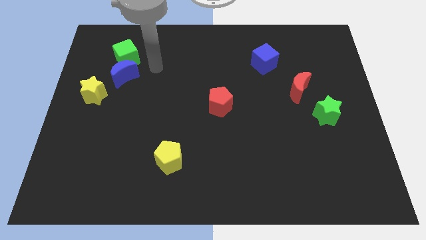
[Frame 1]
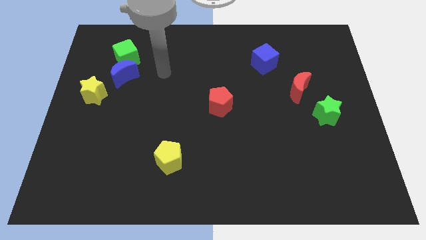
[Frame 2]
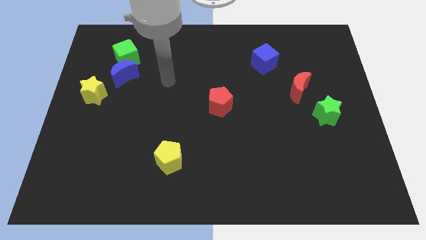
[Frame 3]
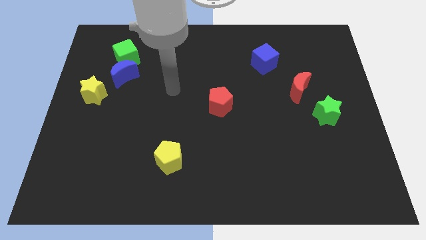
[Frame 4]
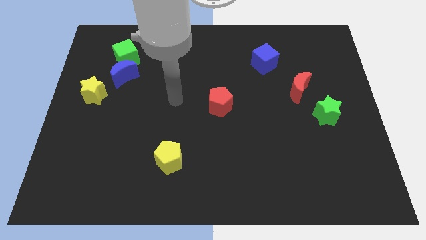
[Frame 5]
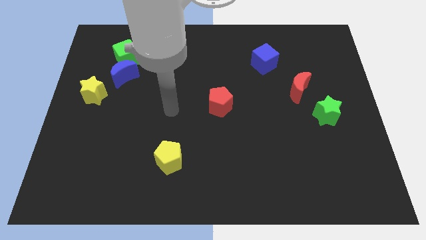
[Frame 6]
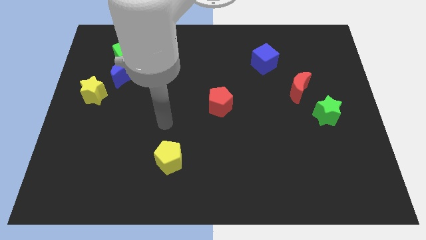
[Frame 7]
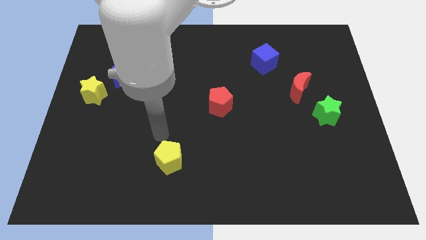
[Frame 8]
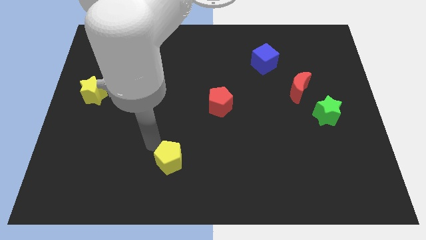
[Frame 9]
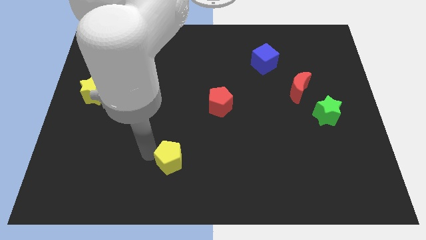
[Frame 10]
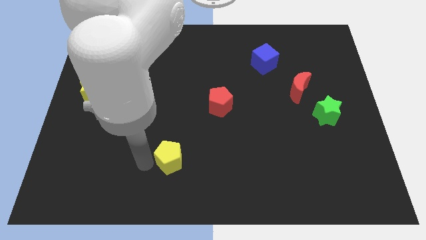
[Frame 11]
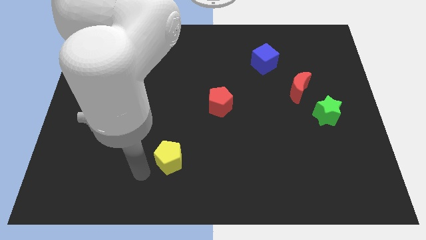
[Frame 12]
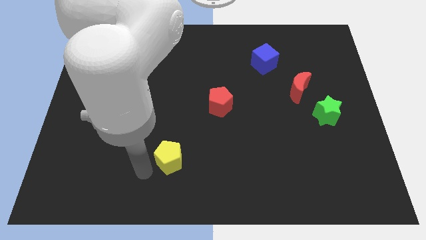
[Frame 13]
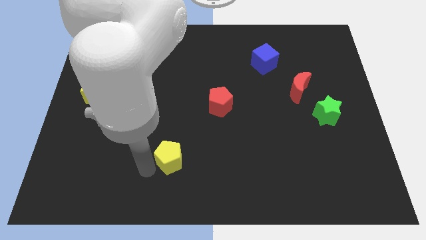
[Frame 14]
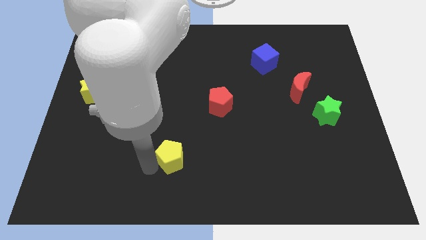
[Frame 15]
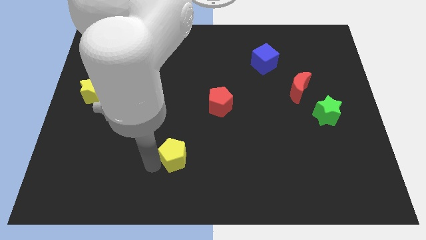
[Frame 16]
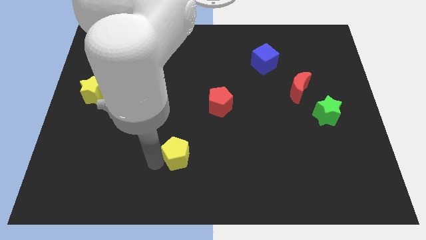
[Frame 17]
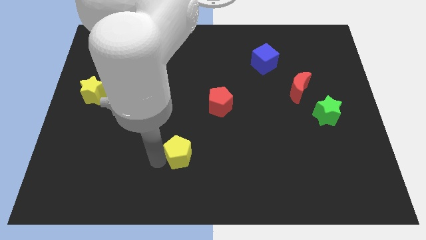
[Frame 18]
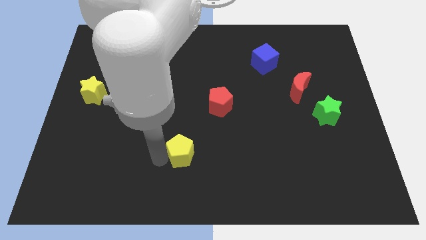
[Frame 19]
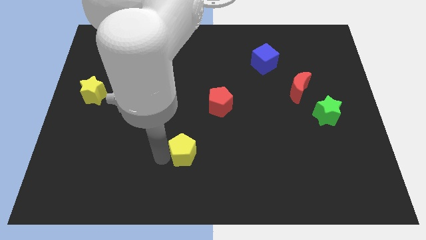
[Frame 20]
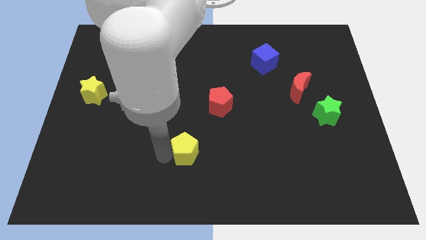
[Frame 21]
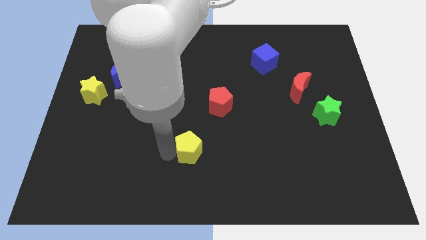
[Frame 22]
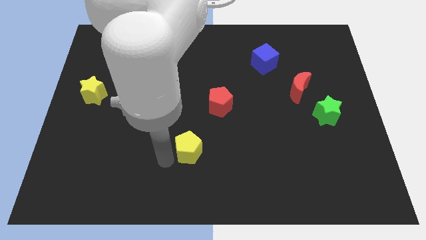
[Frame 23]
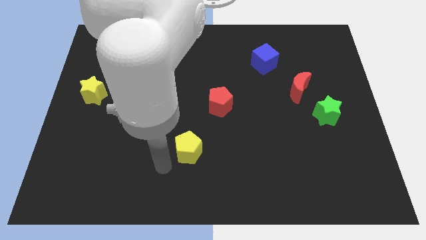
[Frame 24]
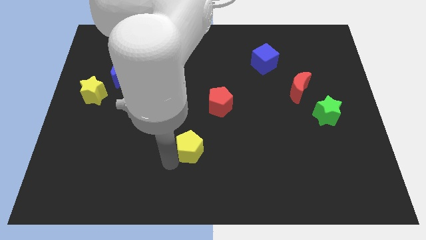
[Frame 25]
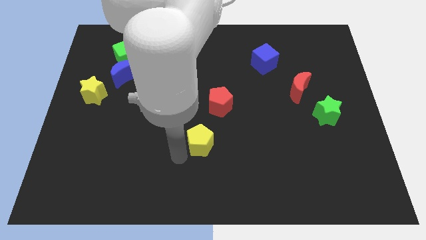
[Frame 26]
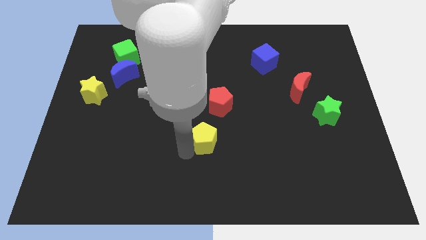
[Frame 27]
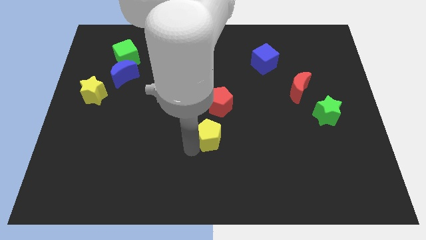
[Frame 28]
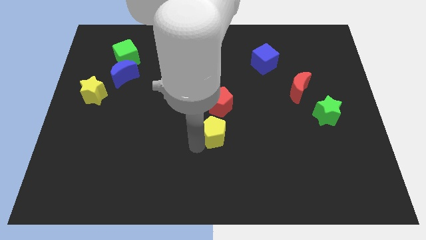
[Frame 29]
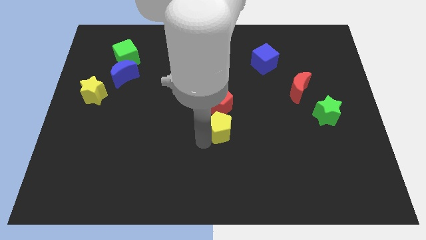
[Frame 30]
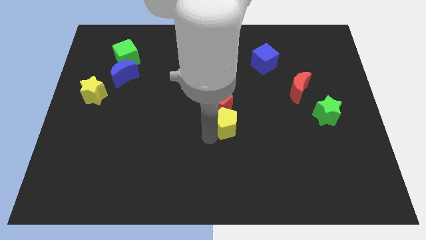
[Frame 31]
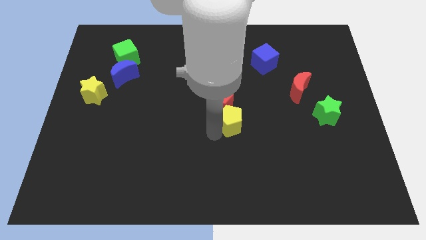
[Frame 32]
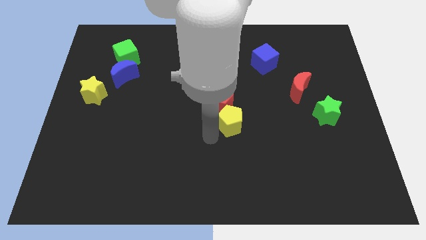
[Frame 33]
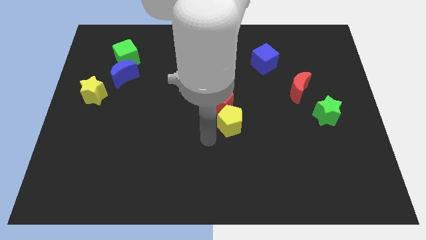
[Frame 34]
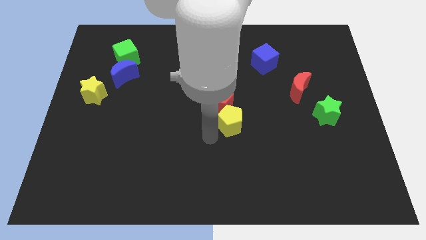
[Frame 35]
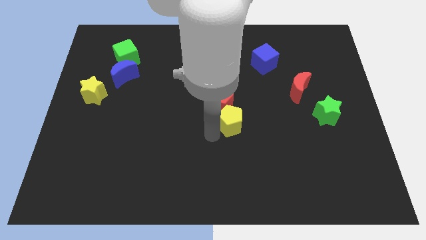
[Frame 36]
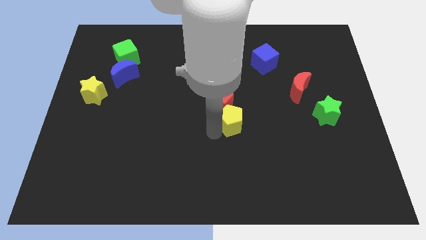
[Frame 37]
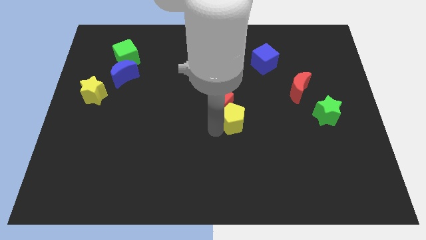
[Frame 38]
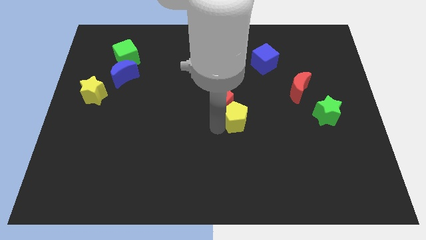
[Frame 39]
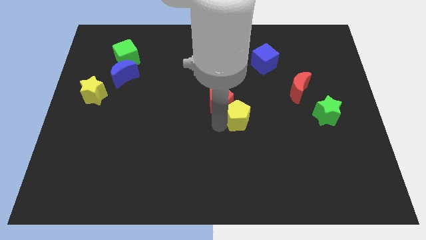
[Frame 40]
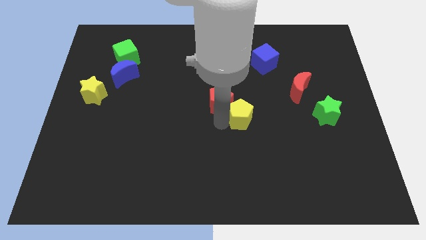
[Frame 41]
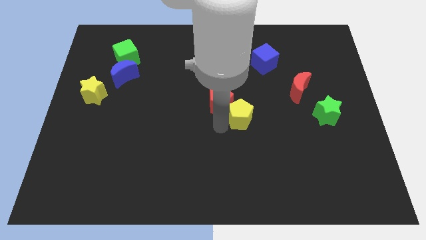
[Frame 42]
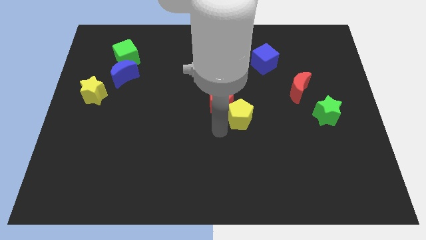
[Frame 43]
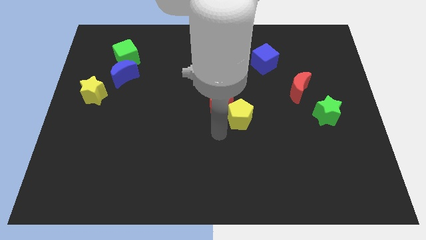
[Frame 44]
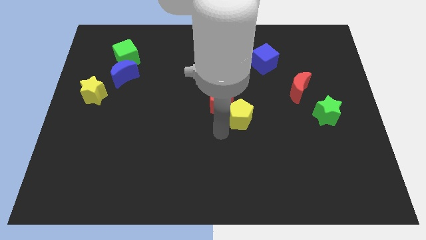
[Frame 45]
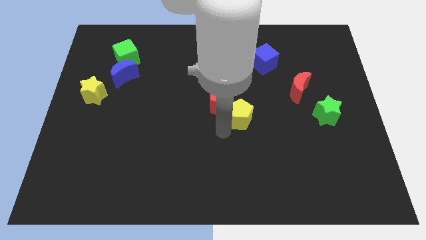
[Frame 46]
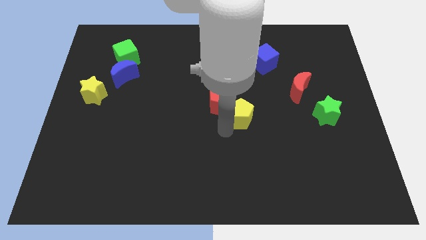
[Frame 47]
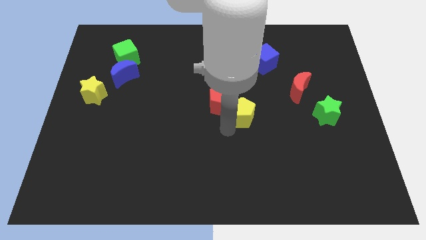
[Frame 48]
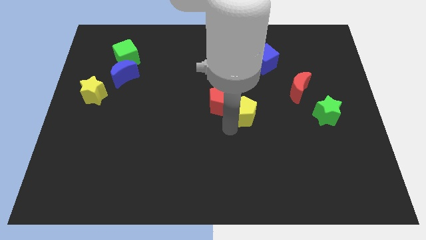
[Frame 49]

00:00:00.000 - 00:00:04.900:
slide the yellow pentagon upwards and then to the right

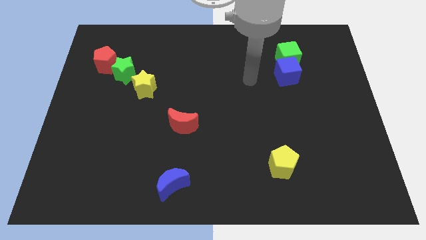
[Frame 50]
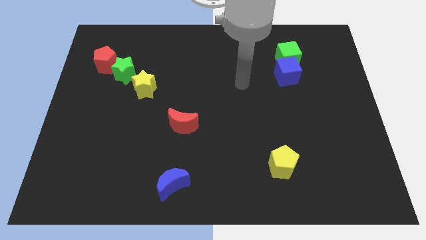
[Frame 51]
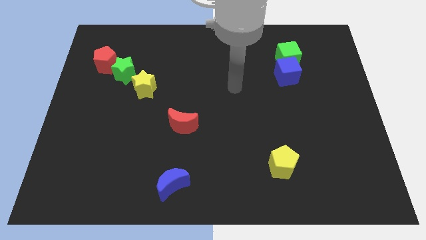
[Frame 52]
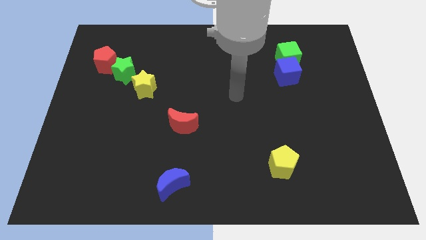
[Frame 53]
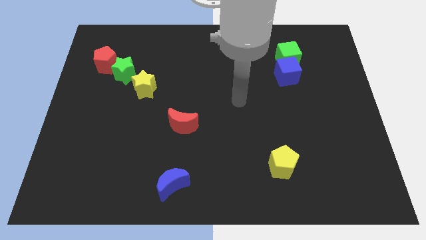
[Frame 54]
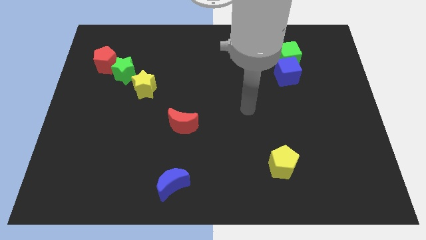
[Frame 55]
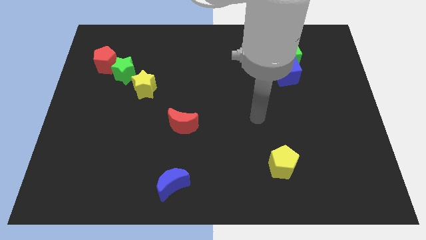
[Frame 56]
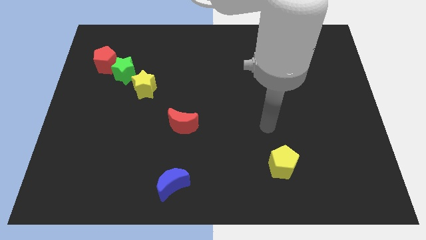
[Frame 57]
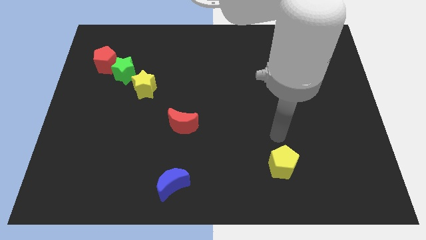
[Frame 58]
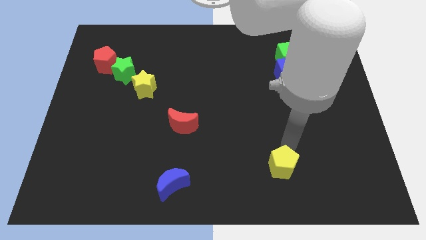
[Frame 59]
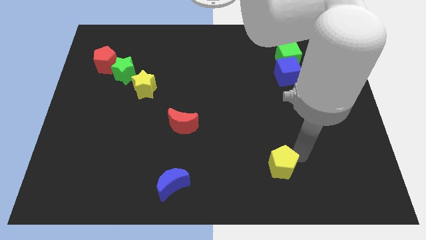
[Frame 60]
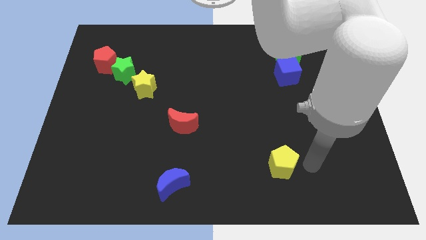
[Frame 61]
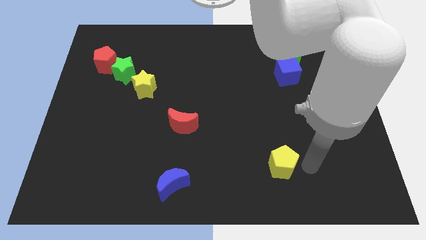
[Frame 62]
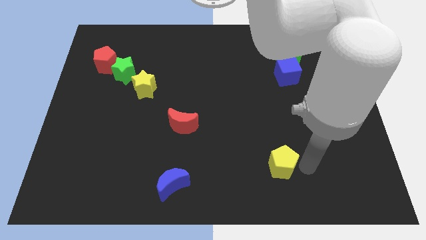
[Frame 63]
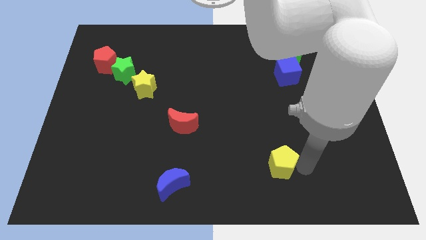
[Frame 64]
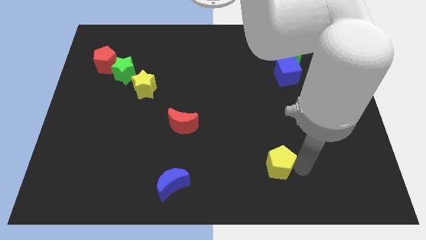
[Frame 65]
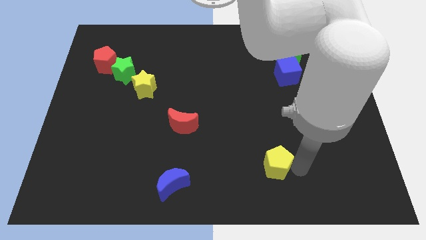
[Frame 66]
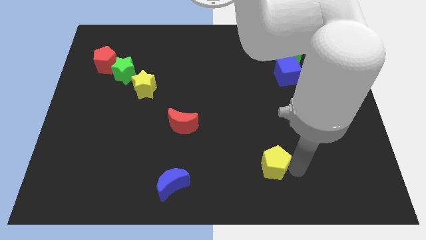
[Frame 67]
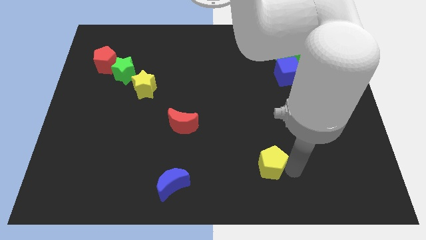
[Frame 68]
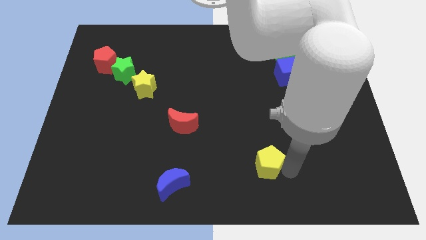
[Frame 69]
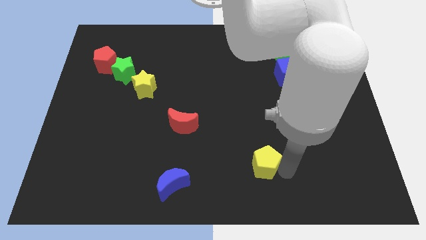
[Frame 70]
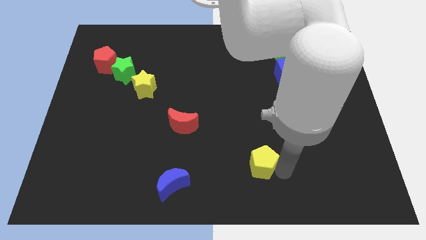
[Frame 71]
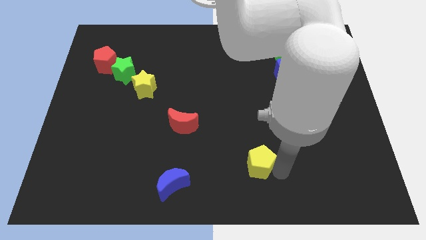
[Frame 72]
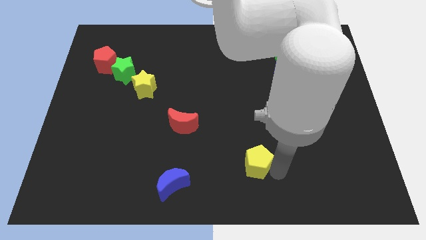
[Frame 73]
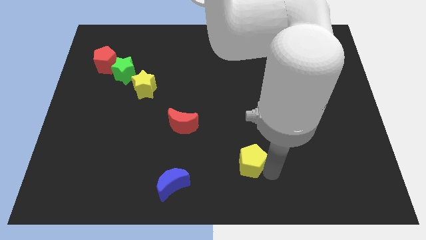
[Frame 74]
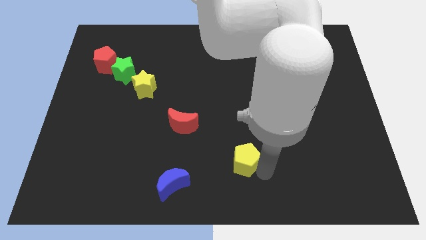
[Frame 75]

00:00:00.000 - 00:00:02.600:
move the yellow pentagon a bit left
